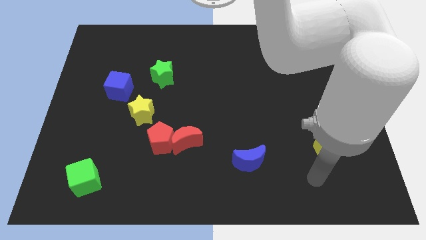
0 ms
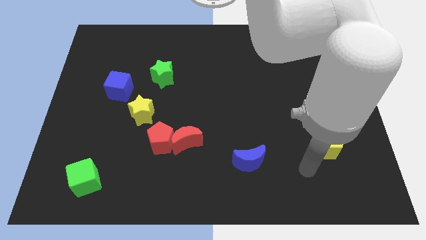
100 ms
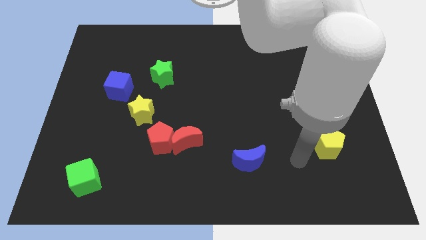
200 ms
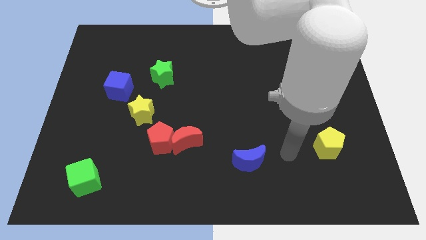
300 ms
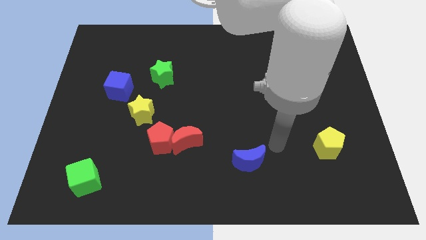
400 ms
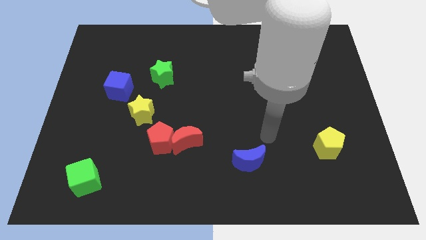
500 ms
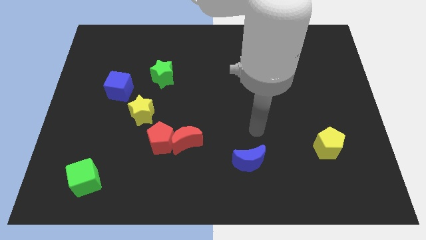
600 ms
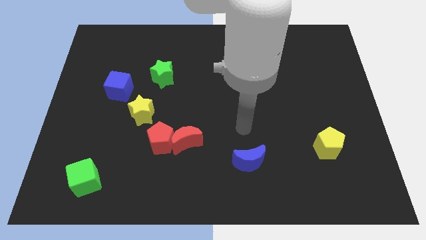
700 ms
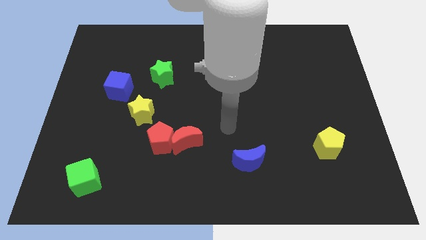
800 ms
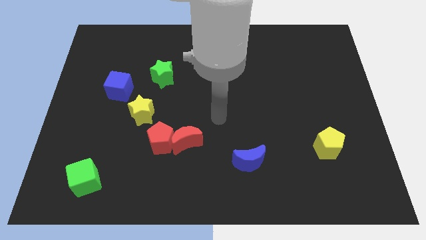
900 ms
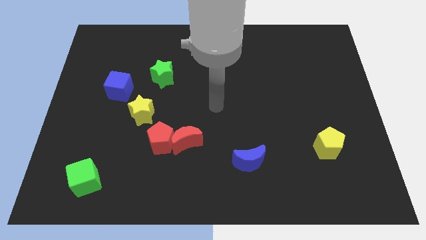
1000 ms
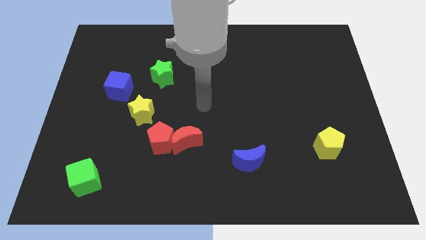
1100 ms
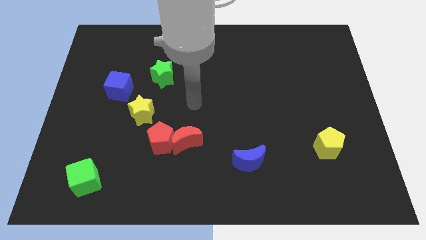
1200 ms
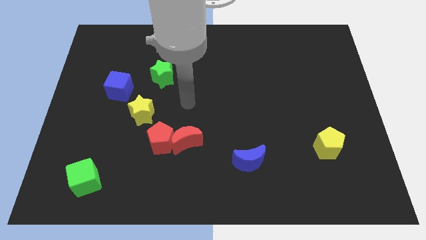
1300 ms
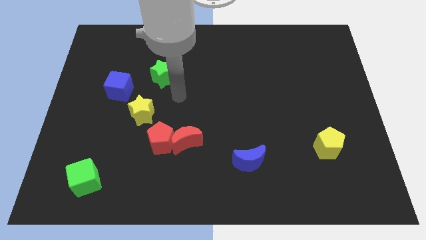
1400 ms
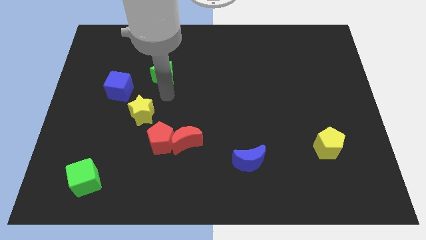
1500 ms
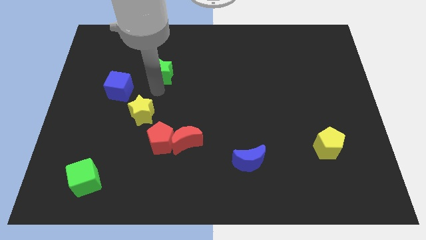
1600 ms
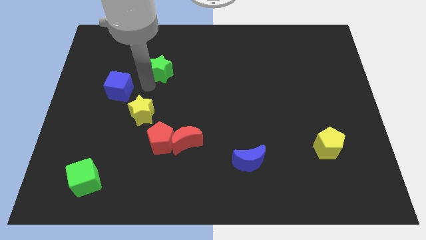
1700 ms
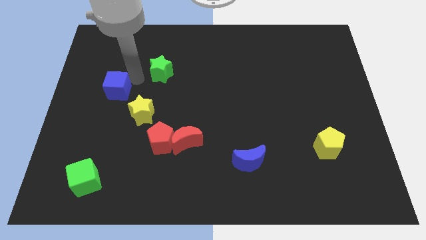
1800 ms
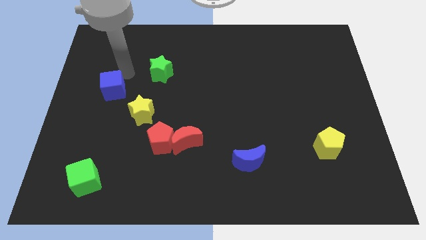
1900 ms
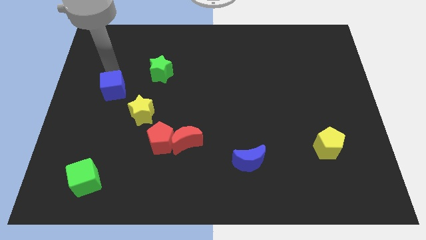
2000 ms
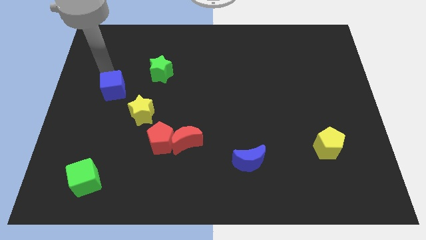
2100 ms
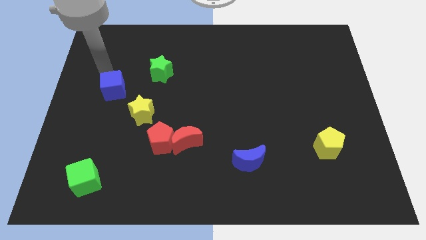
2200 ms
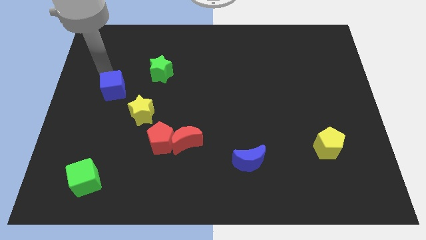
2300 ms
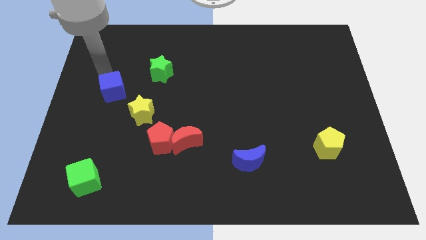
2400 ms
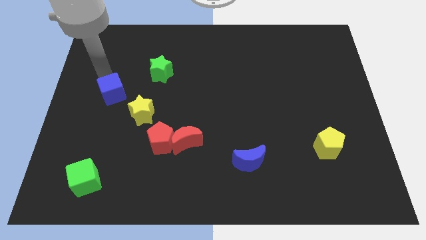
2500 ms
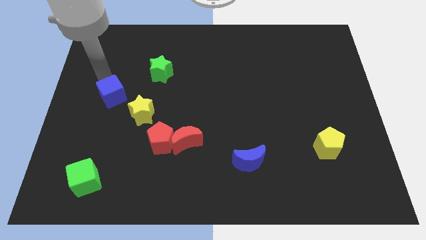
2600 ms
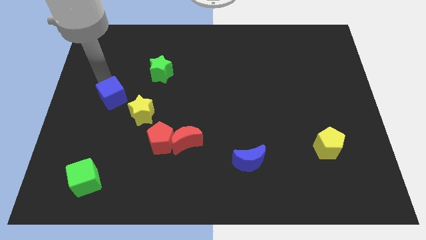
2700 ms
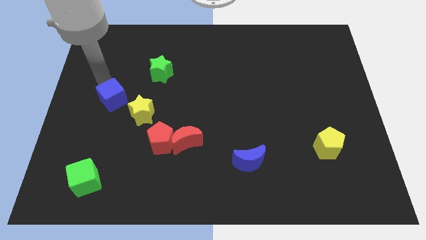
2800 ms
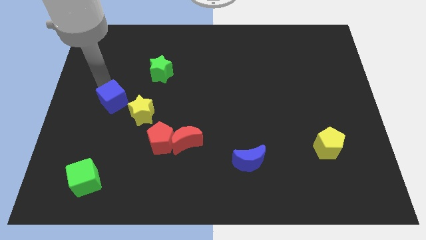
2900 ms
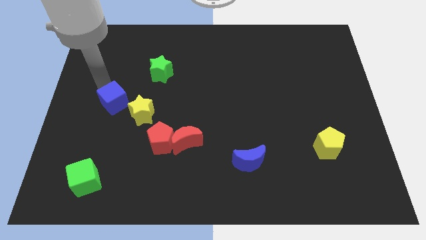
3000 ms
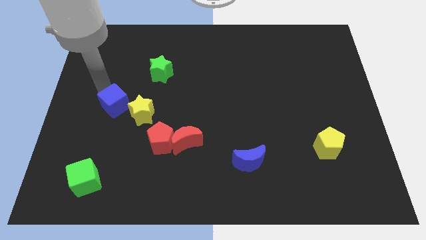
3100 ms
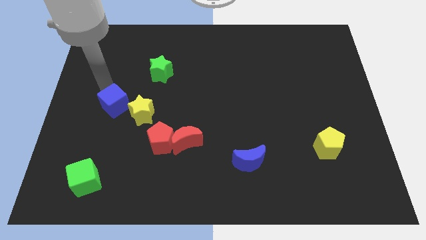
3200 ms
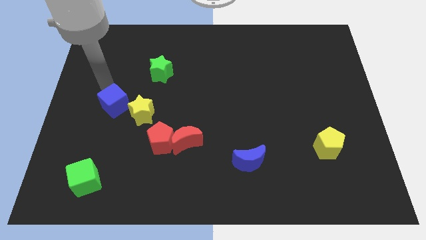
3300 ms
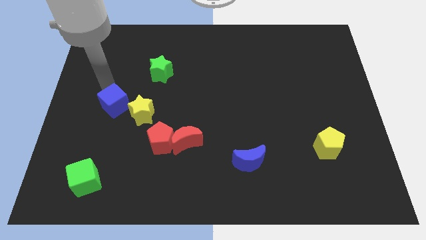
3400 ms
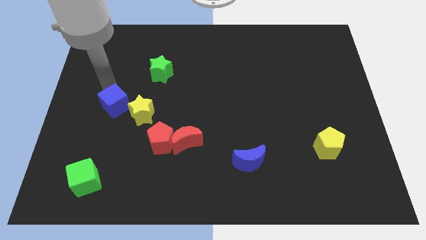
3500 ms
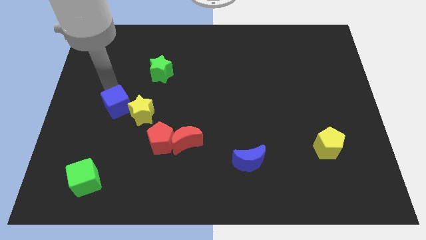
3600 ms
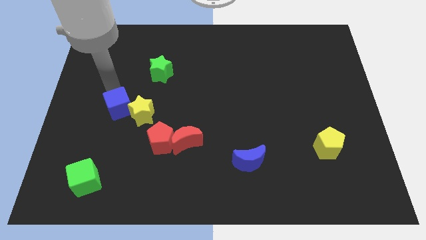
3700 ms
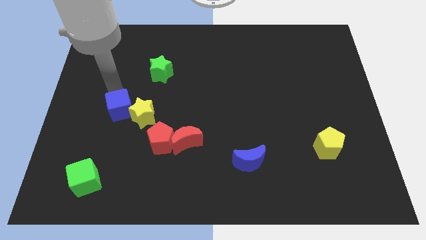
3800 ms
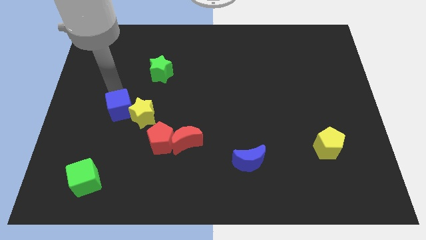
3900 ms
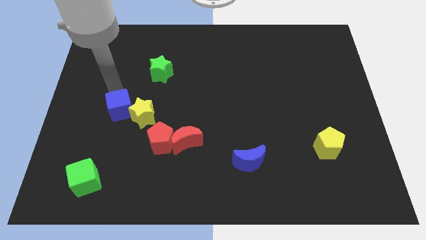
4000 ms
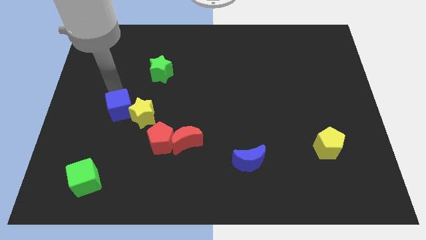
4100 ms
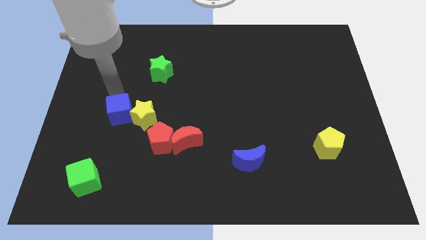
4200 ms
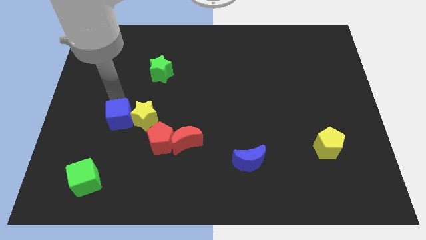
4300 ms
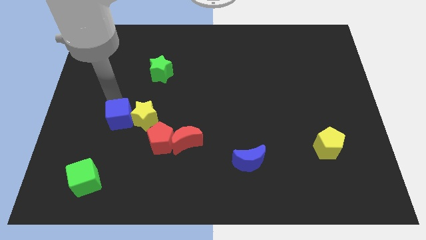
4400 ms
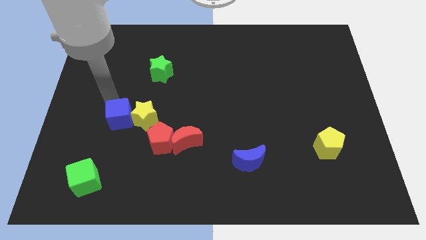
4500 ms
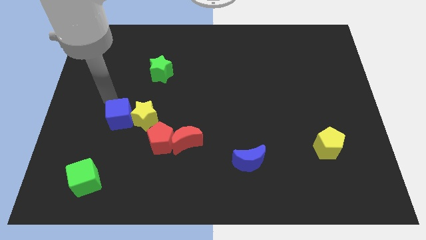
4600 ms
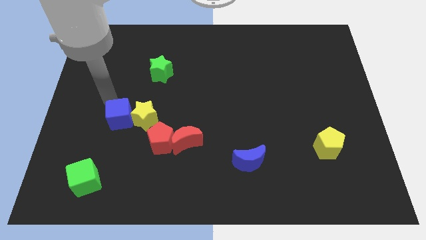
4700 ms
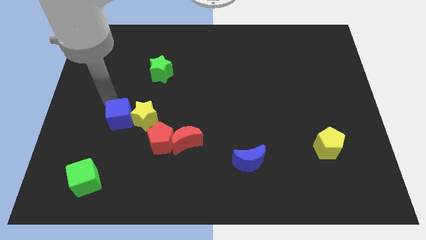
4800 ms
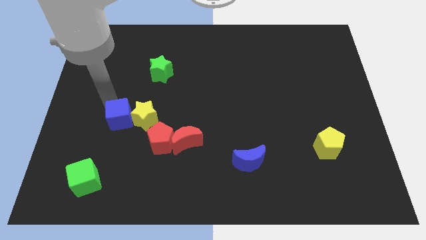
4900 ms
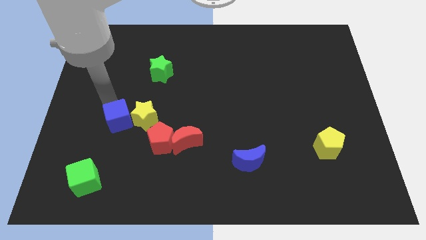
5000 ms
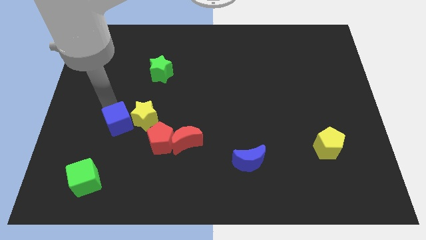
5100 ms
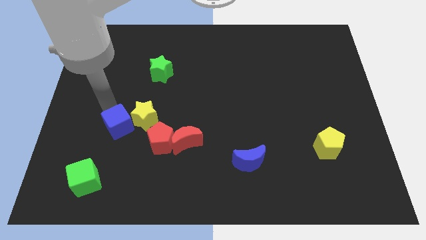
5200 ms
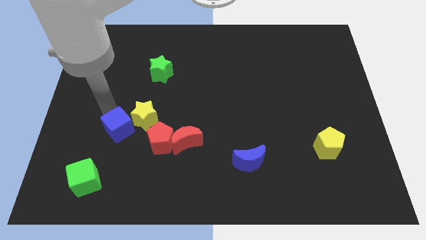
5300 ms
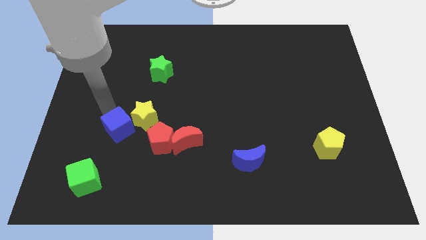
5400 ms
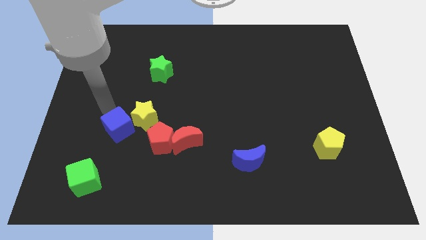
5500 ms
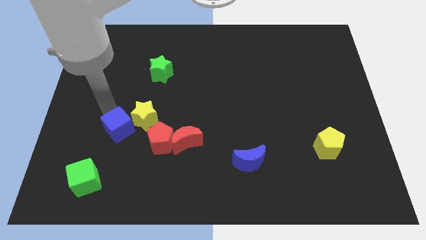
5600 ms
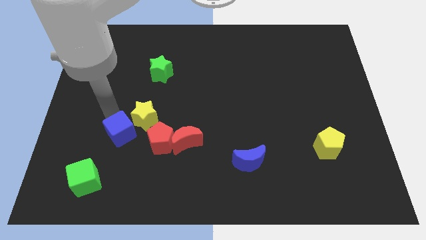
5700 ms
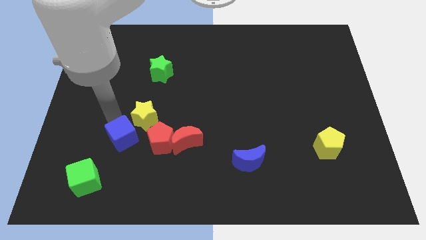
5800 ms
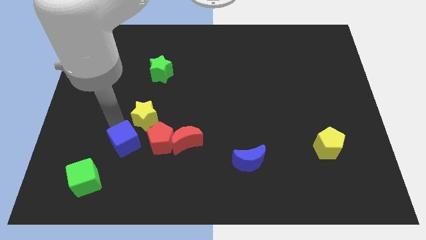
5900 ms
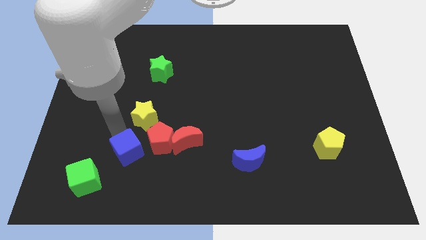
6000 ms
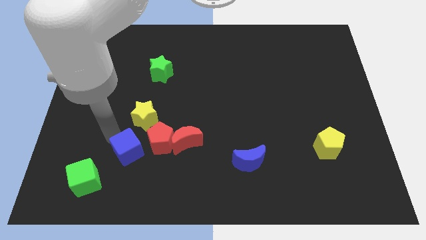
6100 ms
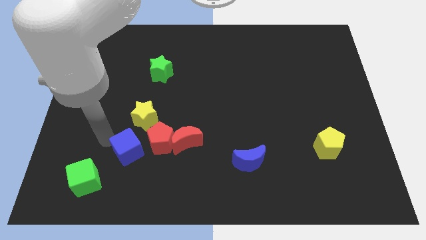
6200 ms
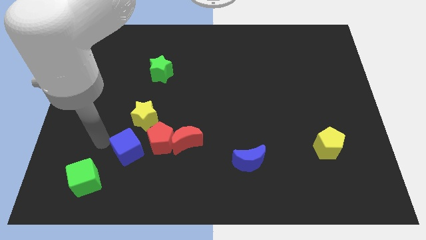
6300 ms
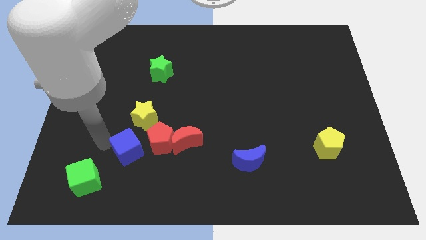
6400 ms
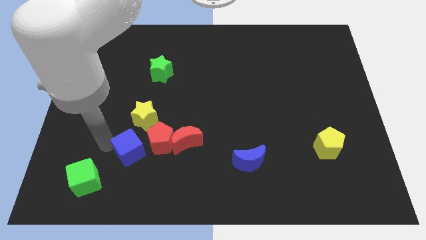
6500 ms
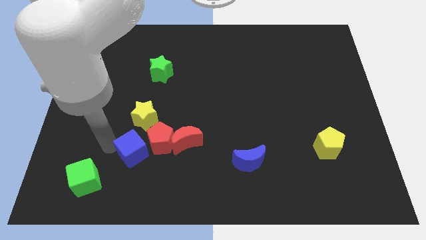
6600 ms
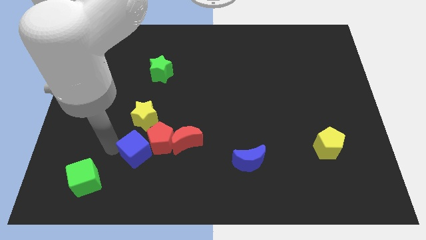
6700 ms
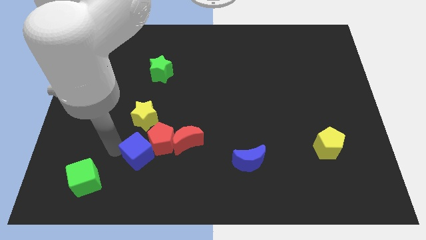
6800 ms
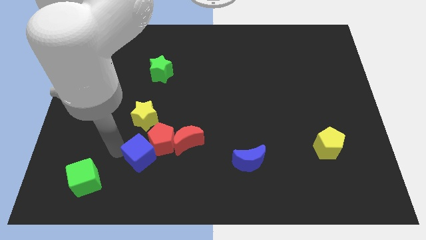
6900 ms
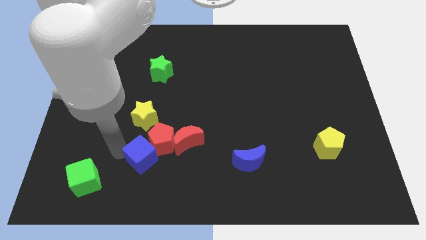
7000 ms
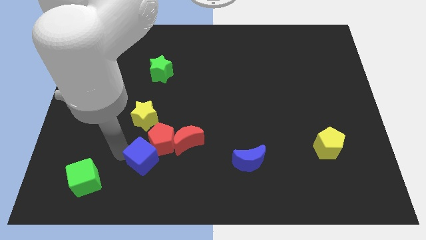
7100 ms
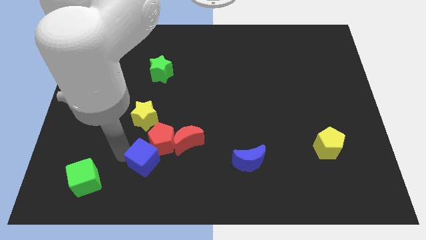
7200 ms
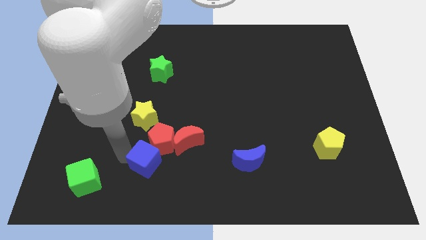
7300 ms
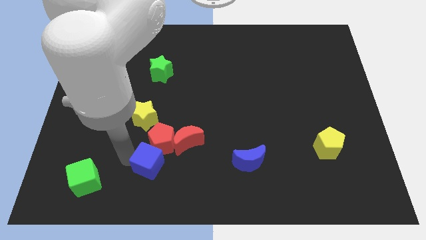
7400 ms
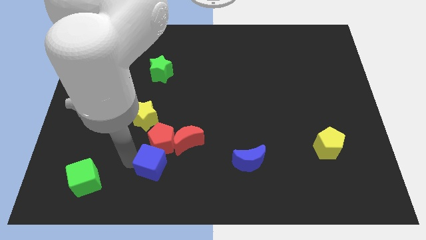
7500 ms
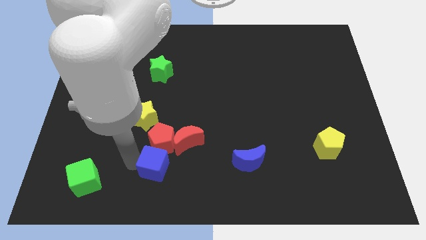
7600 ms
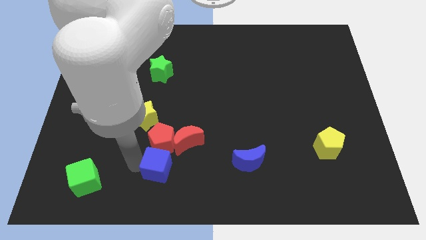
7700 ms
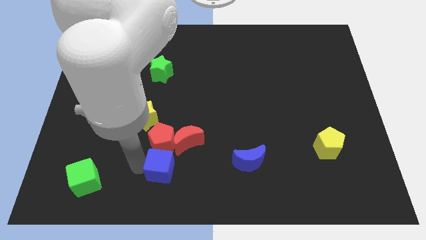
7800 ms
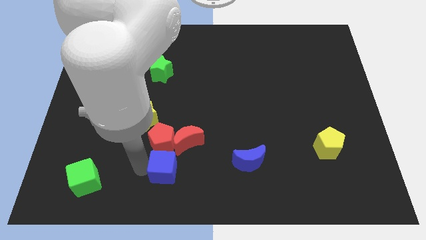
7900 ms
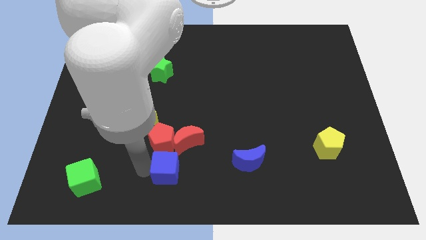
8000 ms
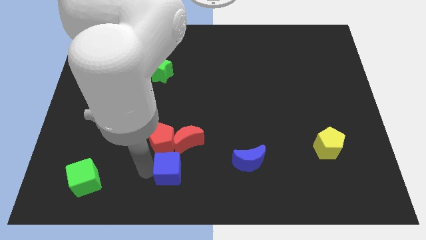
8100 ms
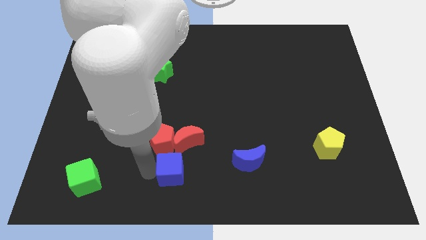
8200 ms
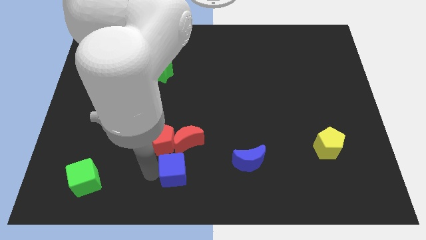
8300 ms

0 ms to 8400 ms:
push the blue cube just left of the blue moon
